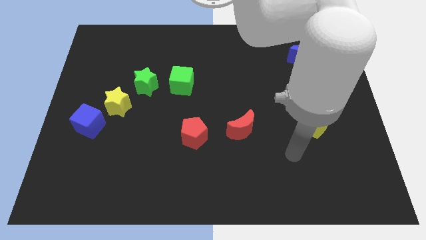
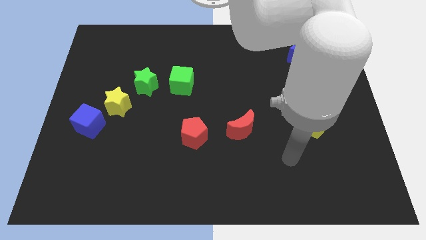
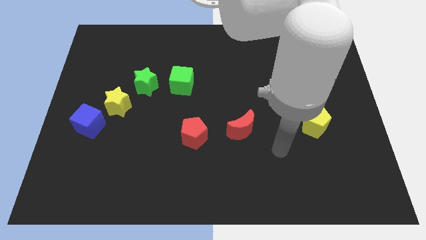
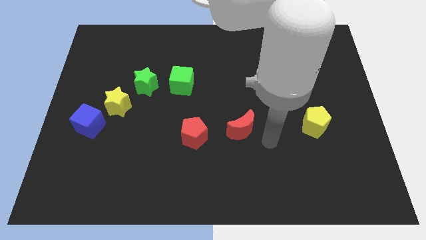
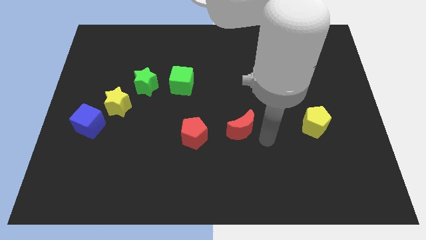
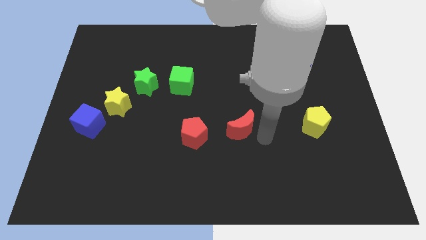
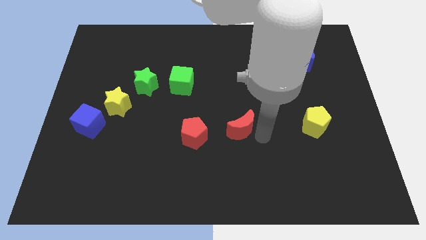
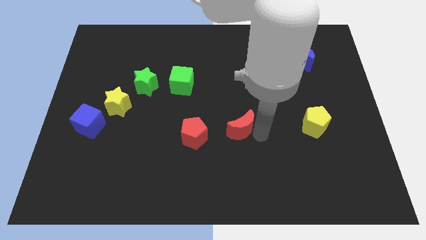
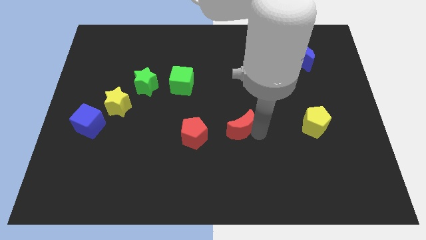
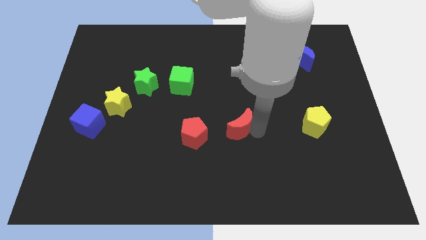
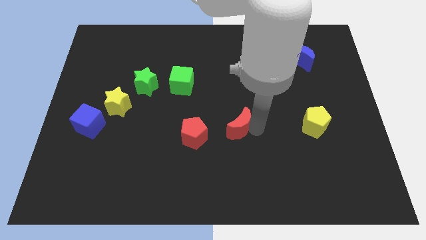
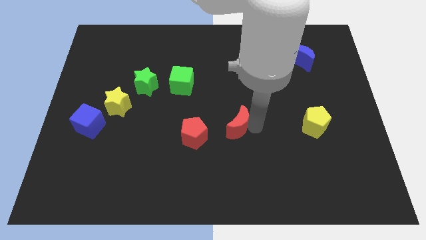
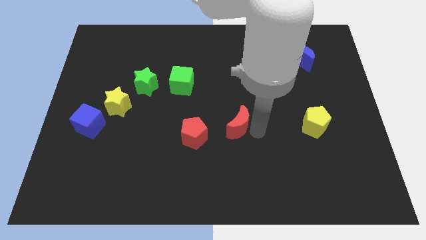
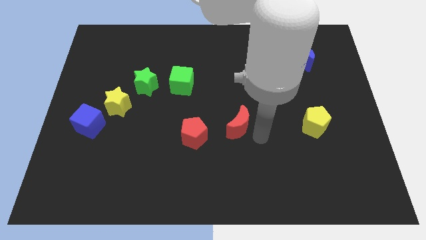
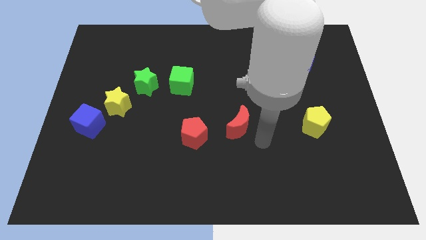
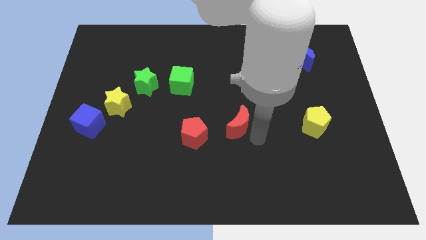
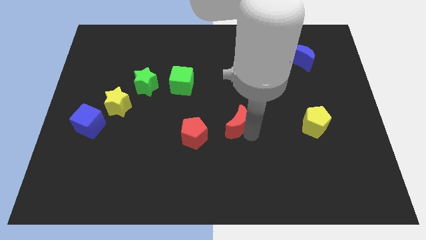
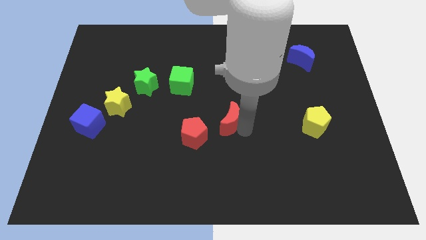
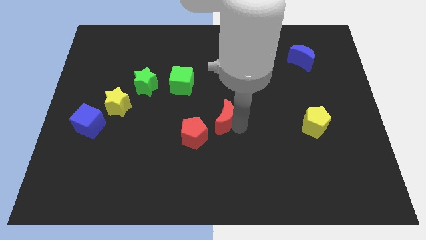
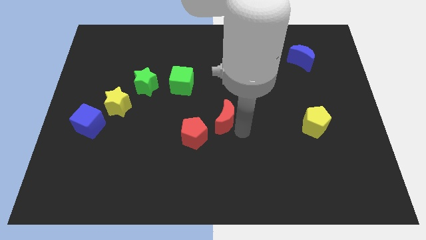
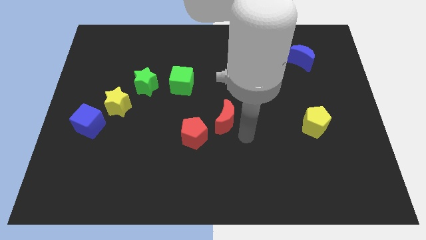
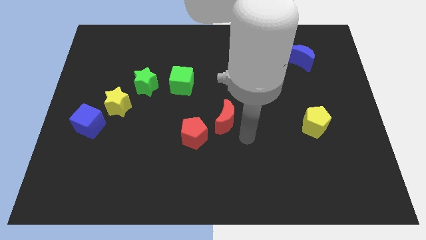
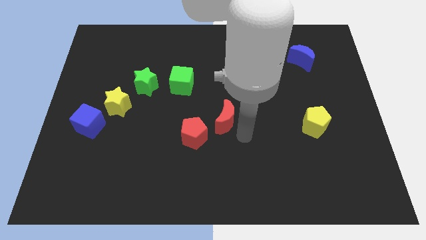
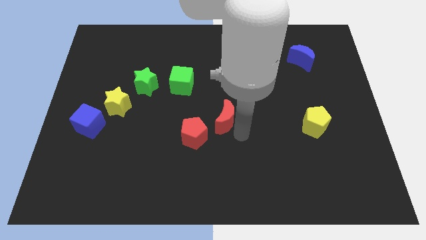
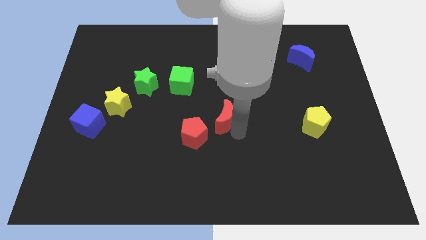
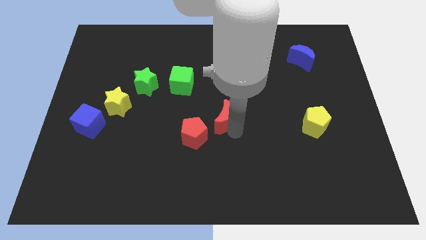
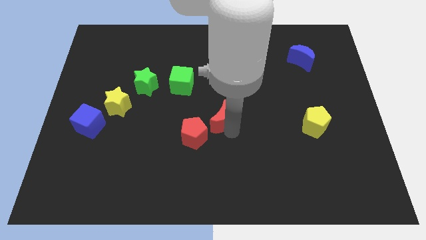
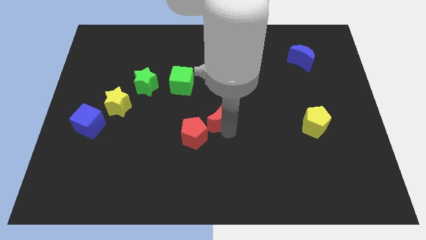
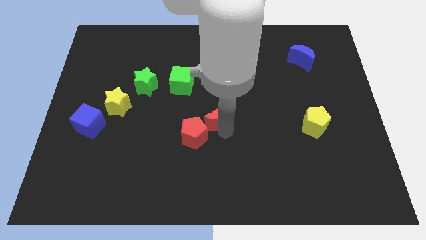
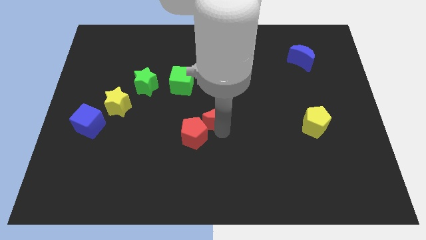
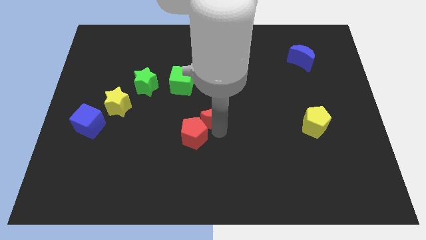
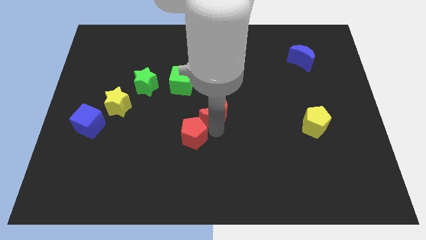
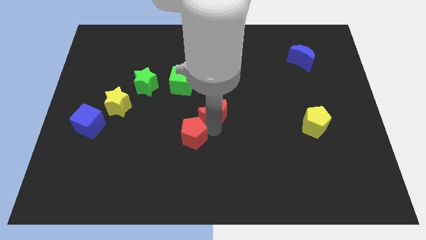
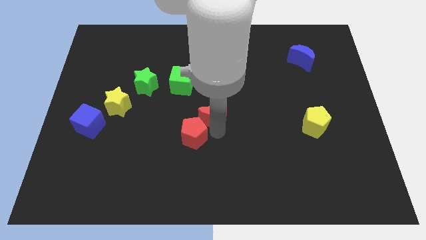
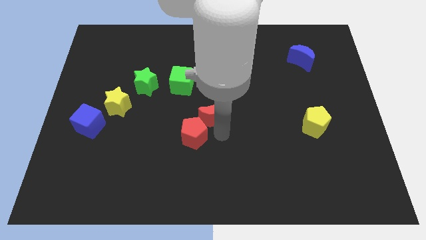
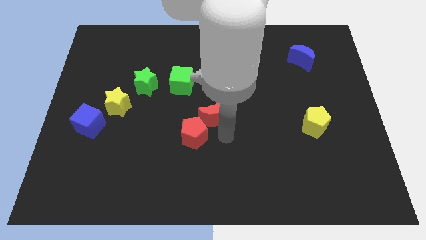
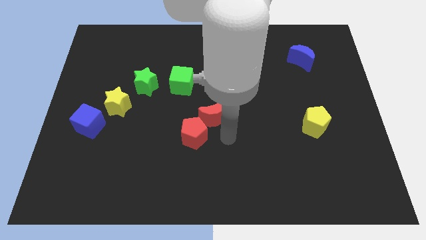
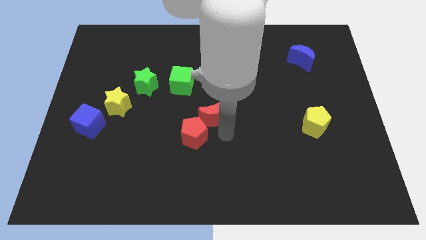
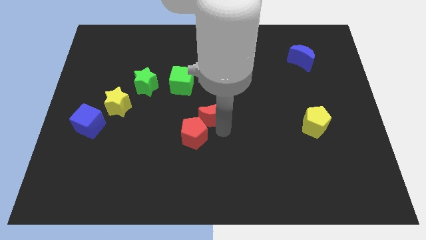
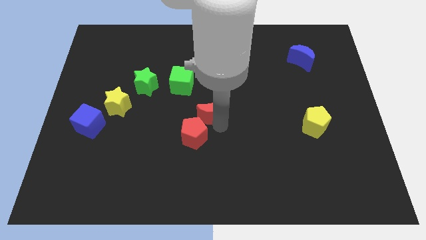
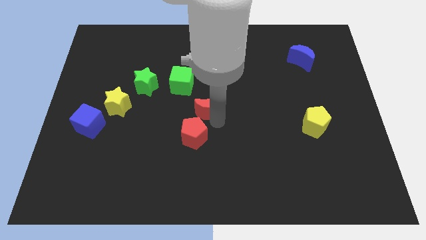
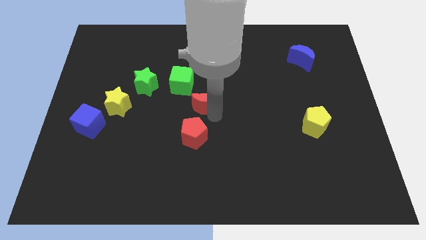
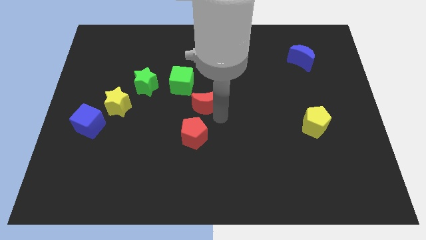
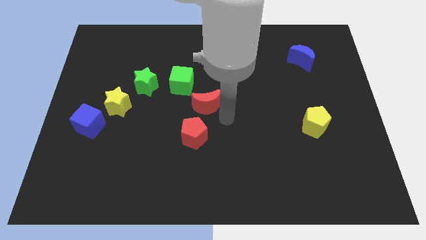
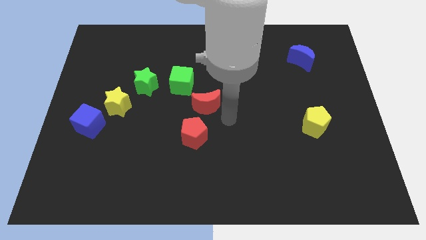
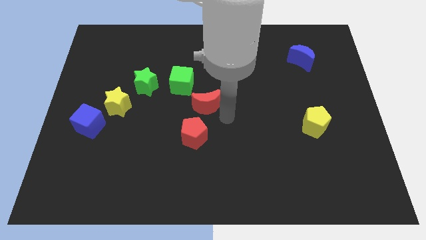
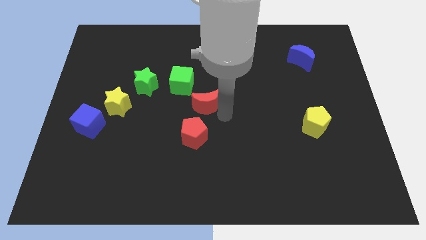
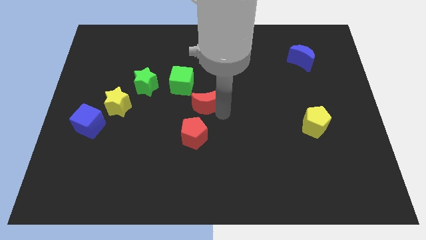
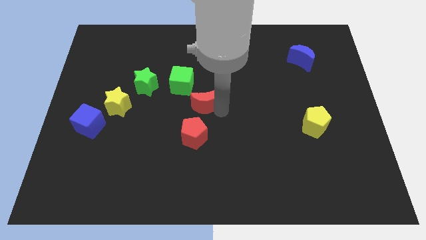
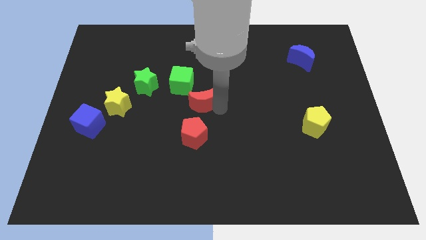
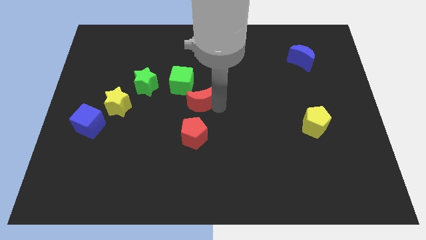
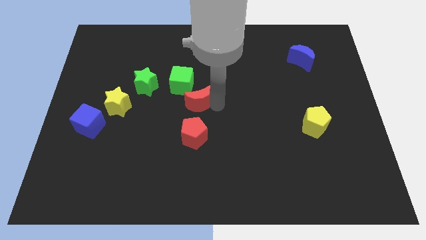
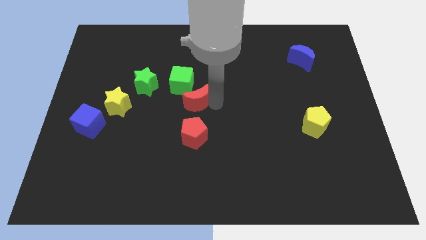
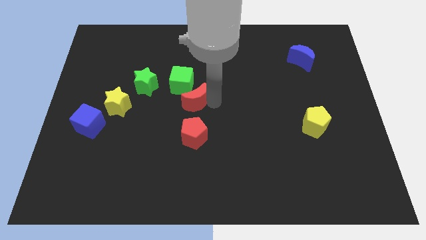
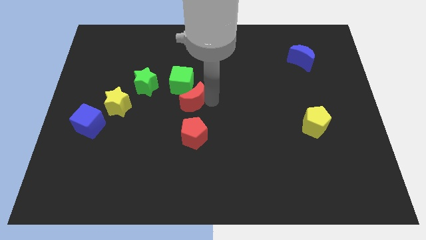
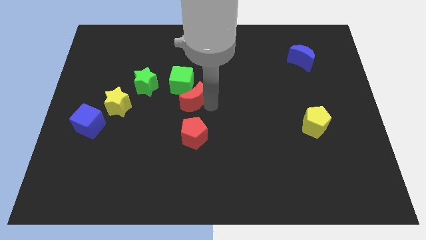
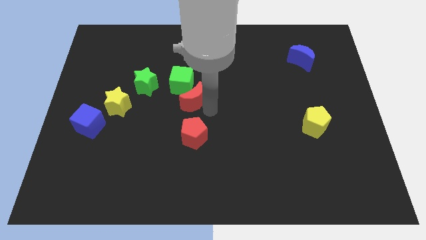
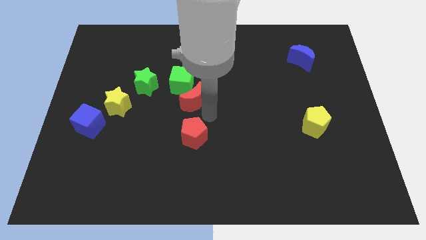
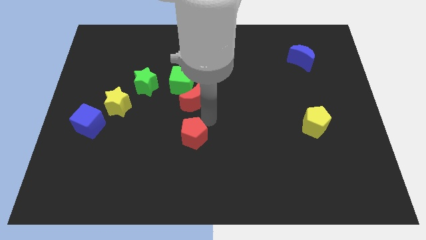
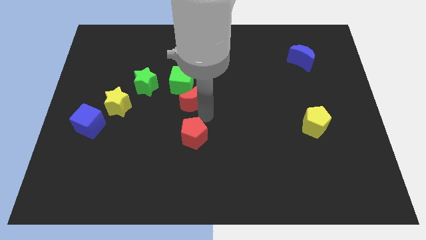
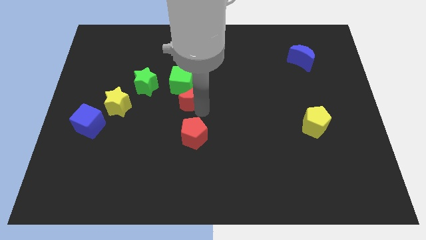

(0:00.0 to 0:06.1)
push the red moon towards the green cube
